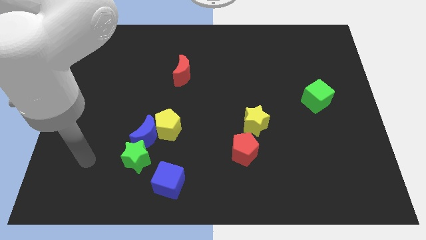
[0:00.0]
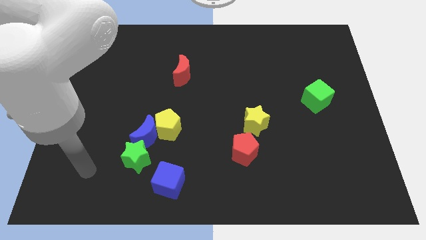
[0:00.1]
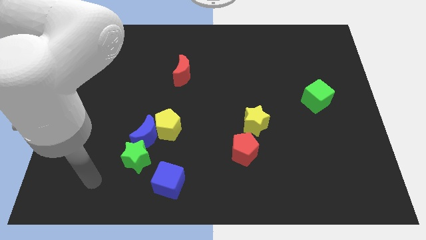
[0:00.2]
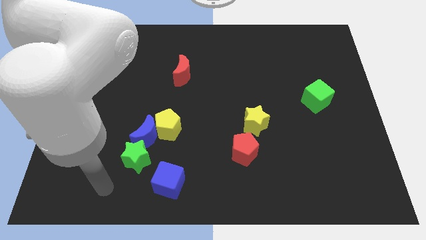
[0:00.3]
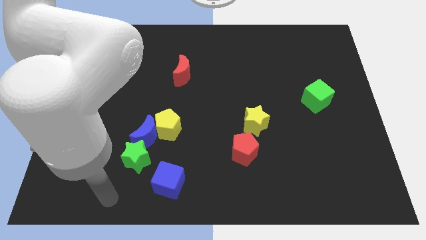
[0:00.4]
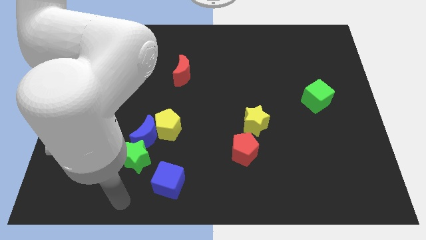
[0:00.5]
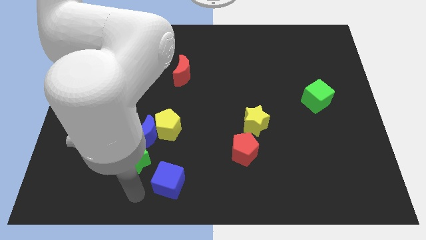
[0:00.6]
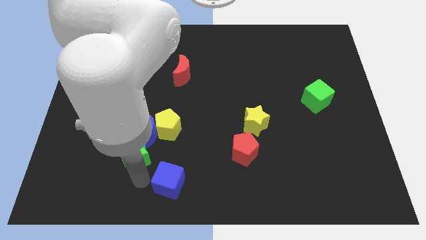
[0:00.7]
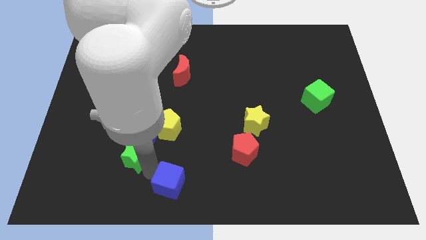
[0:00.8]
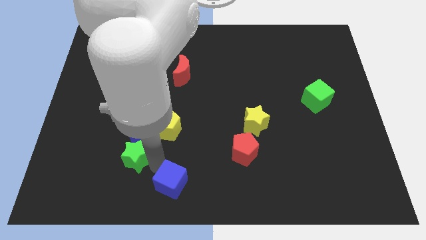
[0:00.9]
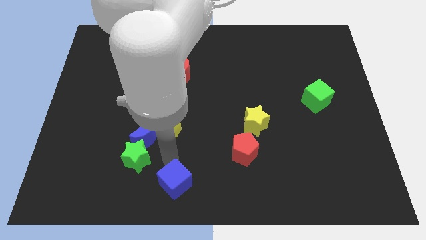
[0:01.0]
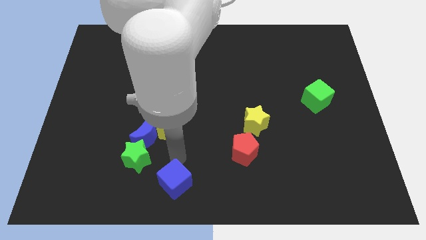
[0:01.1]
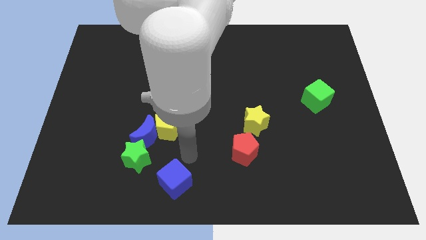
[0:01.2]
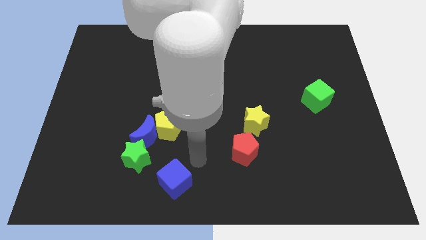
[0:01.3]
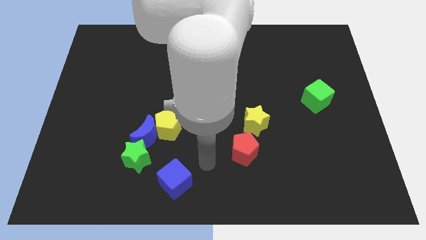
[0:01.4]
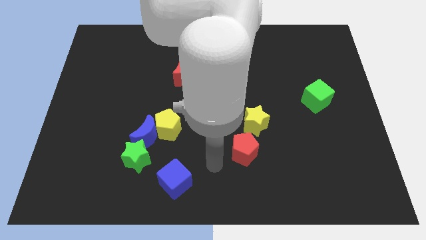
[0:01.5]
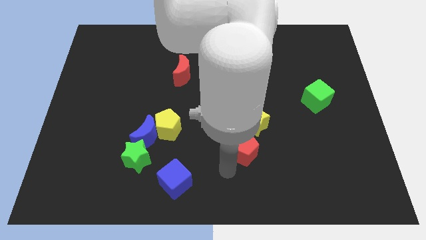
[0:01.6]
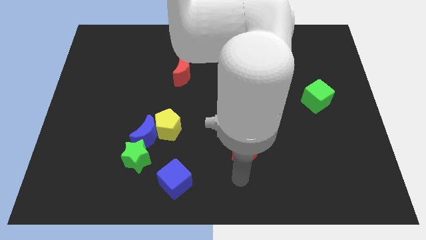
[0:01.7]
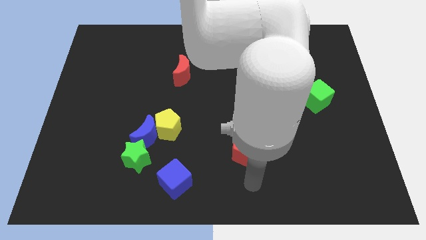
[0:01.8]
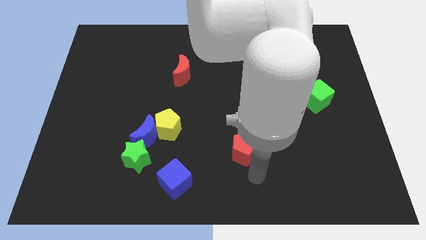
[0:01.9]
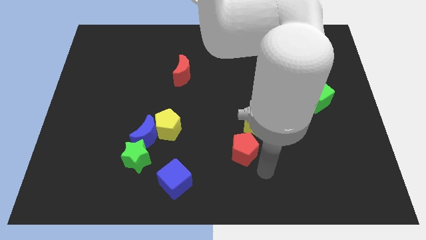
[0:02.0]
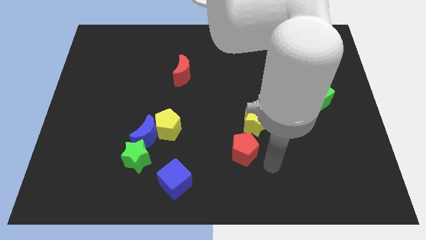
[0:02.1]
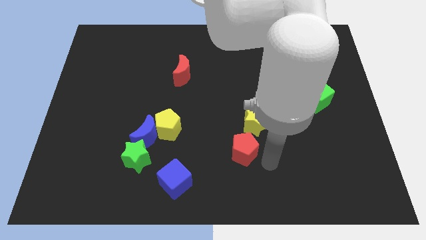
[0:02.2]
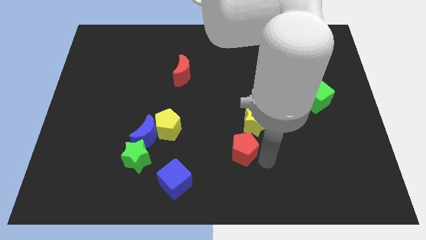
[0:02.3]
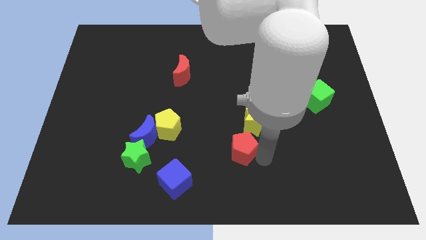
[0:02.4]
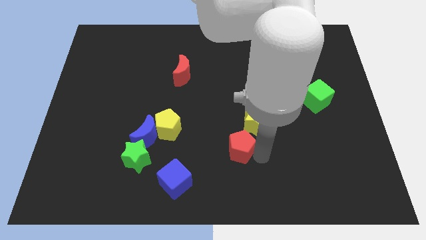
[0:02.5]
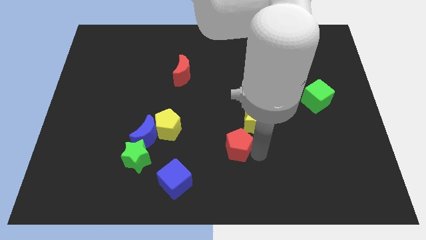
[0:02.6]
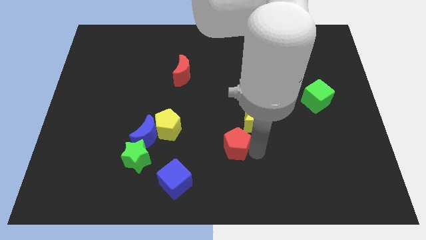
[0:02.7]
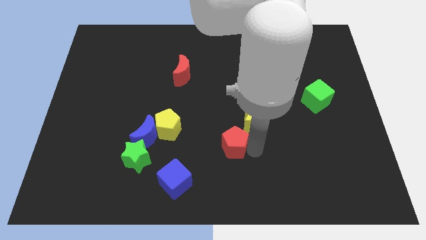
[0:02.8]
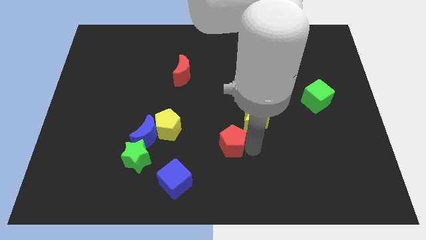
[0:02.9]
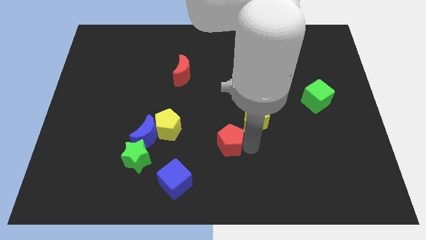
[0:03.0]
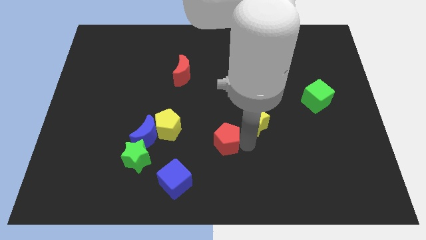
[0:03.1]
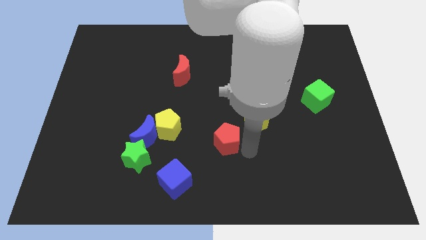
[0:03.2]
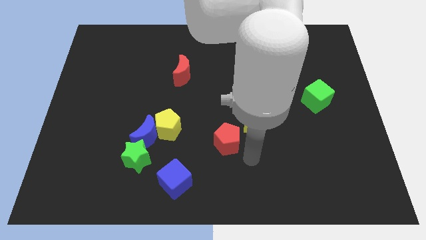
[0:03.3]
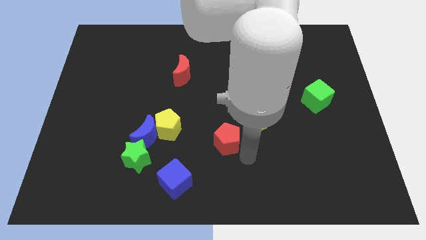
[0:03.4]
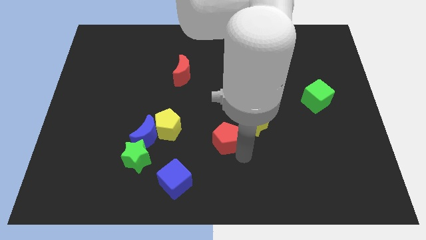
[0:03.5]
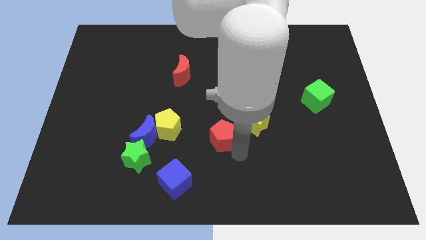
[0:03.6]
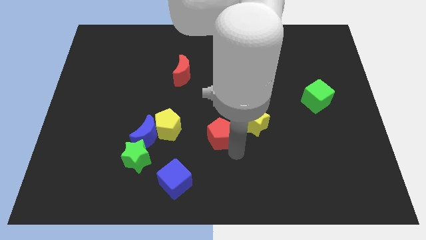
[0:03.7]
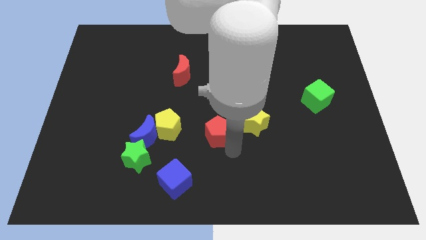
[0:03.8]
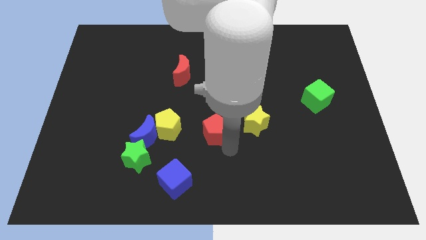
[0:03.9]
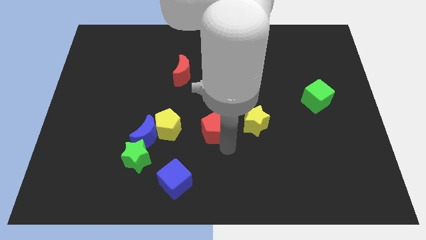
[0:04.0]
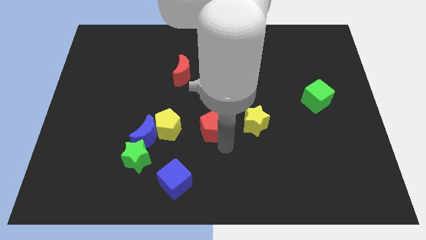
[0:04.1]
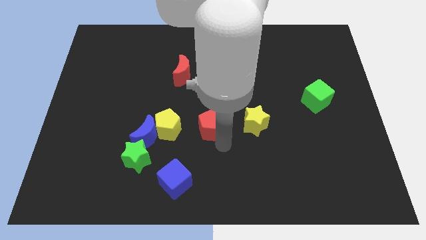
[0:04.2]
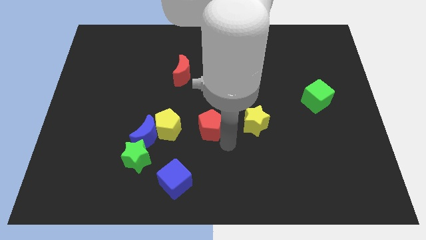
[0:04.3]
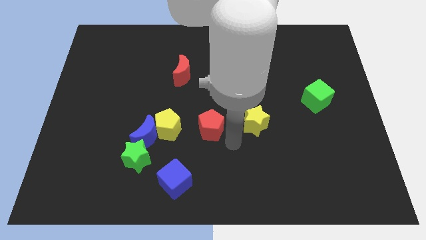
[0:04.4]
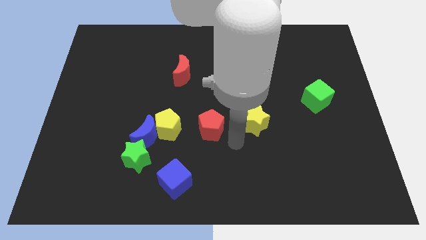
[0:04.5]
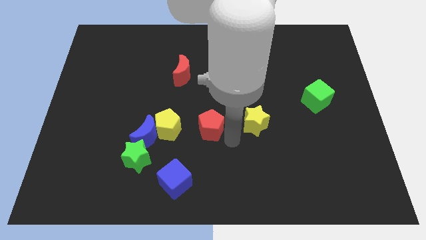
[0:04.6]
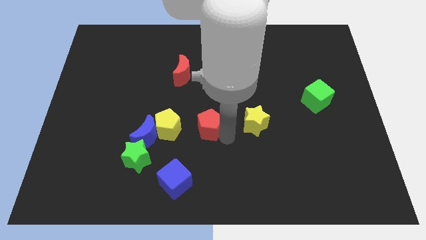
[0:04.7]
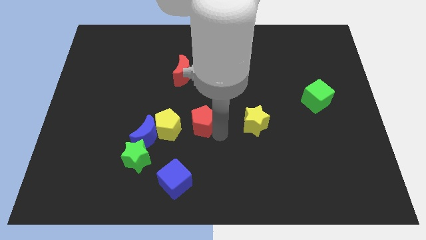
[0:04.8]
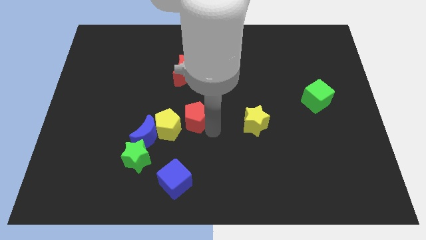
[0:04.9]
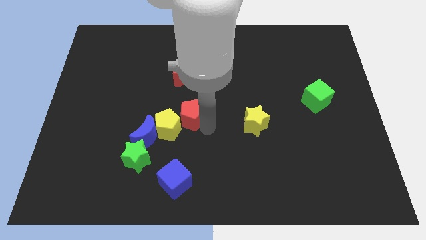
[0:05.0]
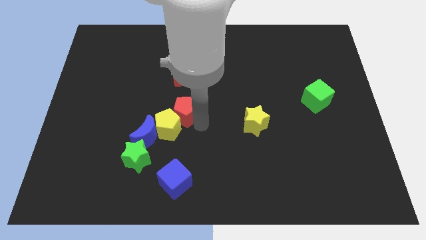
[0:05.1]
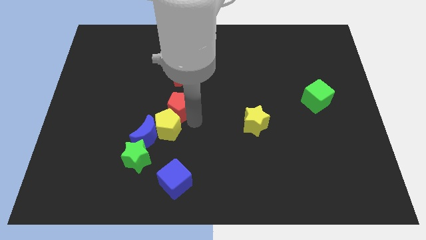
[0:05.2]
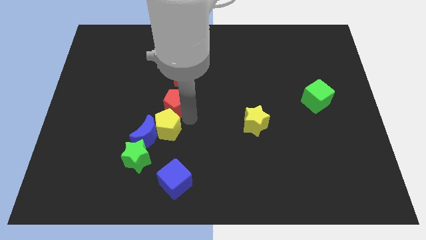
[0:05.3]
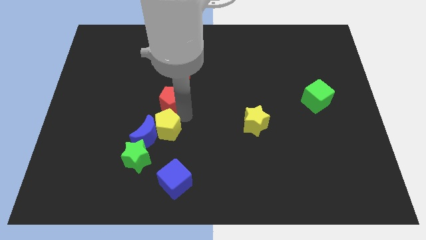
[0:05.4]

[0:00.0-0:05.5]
slide the red pentagon upwards and to the left

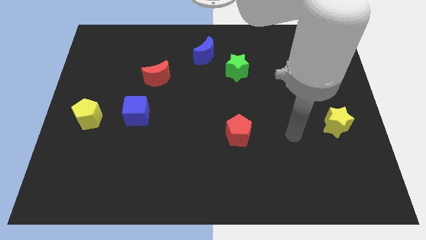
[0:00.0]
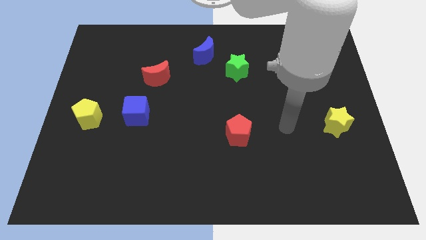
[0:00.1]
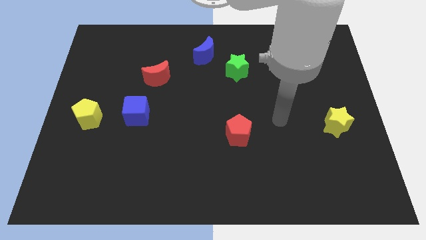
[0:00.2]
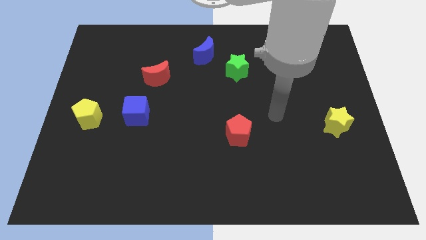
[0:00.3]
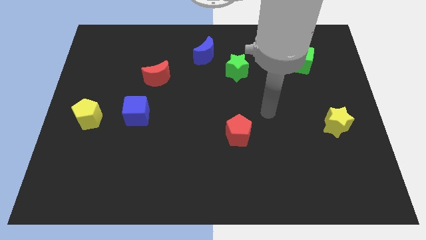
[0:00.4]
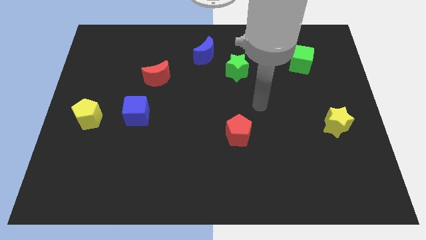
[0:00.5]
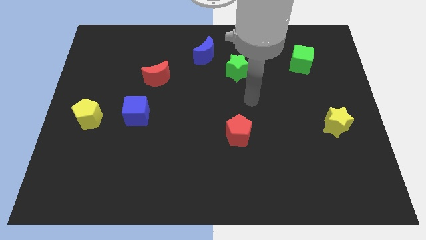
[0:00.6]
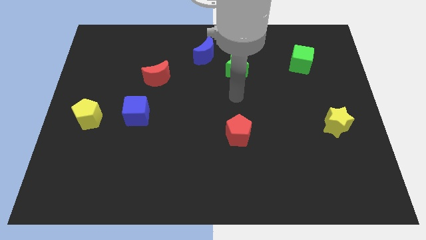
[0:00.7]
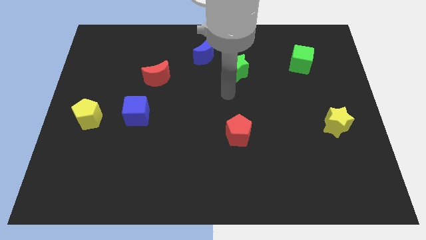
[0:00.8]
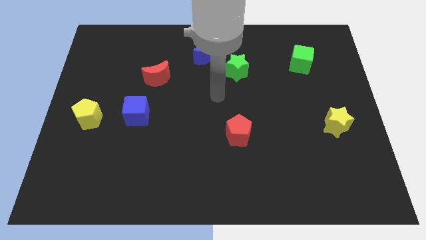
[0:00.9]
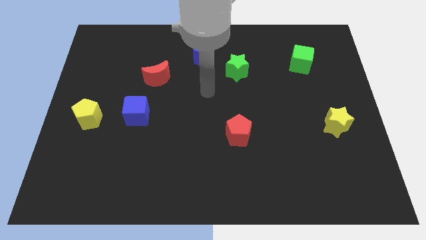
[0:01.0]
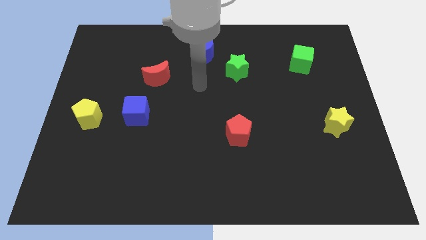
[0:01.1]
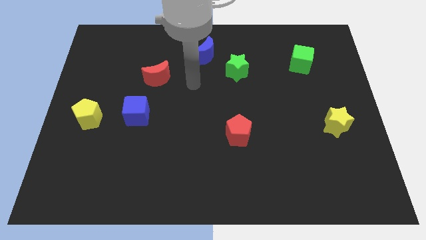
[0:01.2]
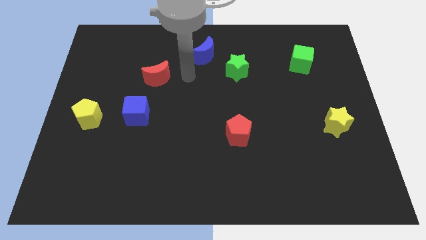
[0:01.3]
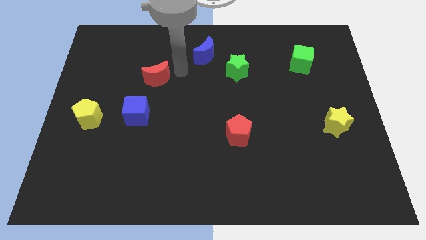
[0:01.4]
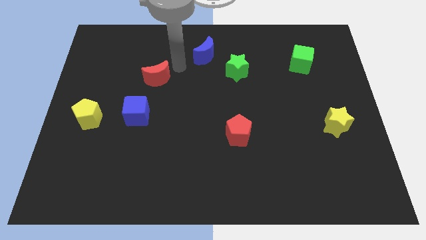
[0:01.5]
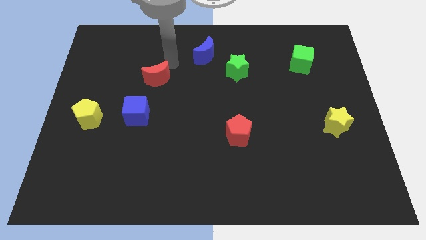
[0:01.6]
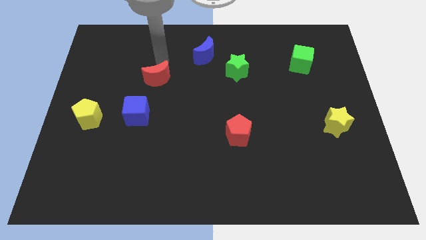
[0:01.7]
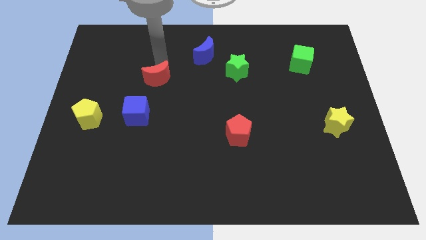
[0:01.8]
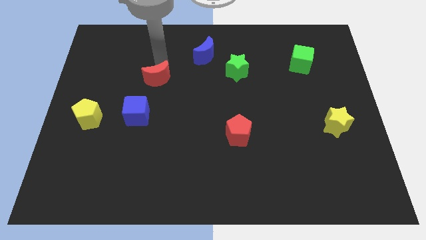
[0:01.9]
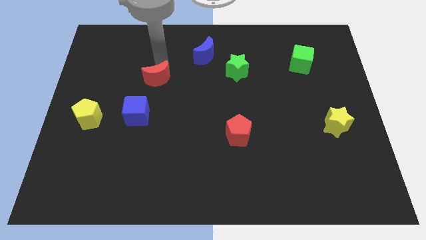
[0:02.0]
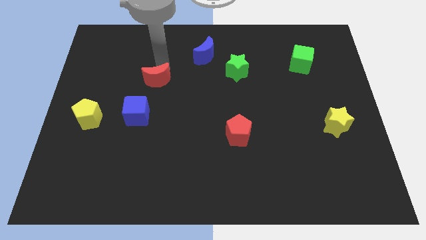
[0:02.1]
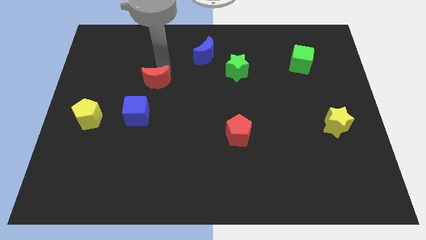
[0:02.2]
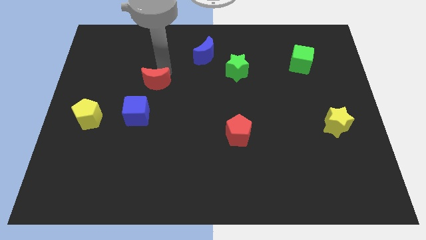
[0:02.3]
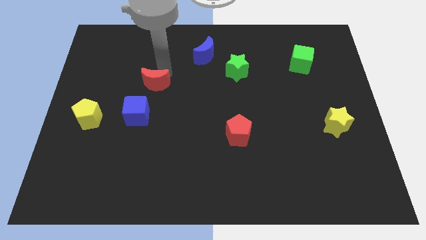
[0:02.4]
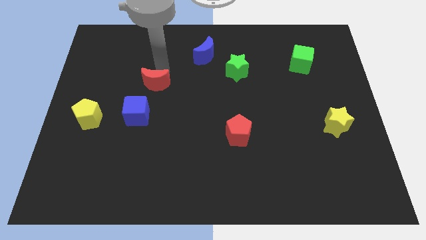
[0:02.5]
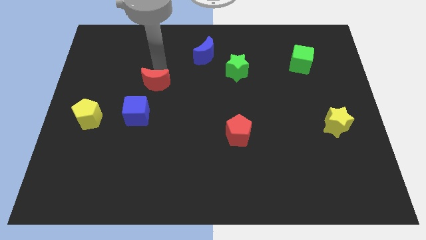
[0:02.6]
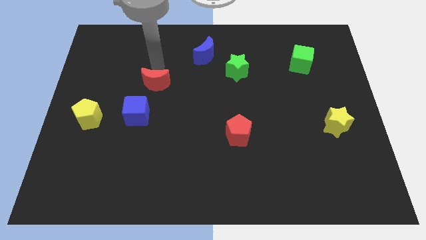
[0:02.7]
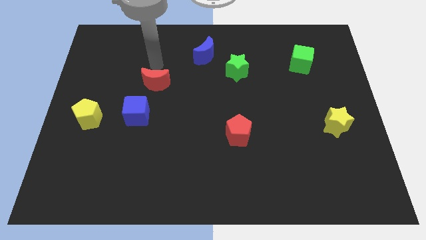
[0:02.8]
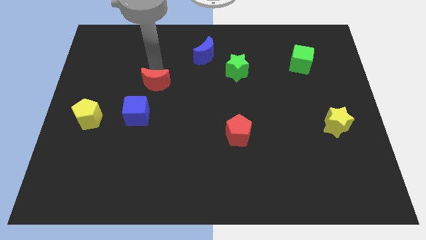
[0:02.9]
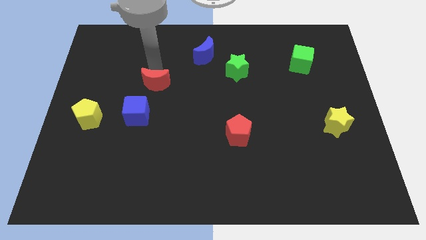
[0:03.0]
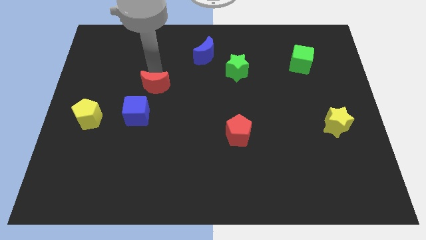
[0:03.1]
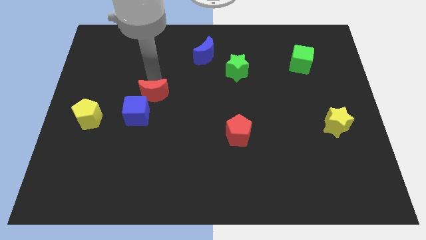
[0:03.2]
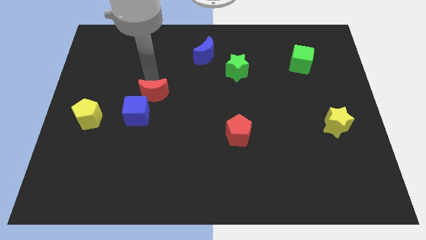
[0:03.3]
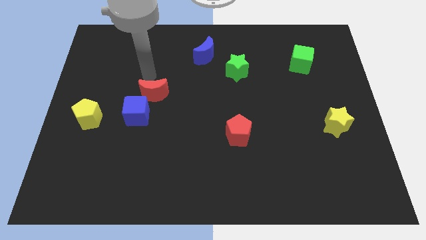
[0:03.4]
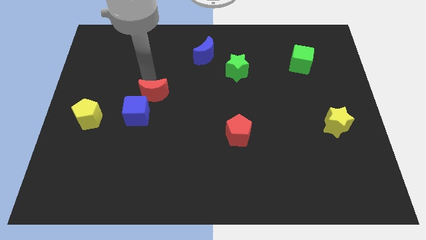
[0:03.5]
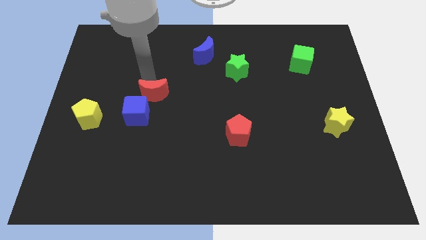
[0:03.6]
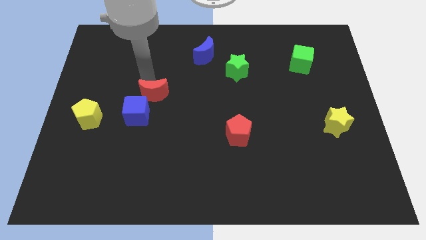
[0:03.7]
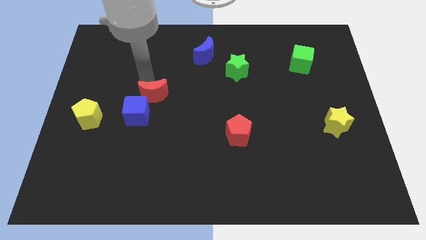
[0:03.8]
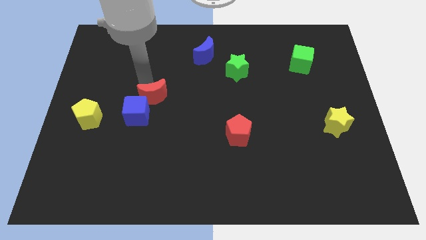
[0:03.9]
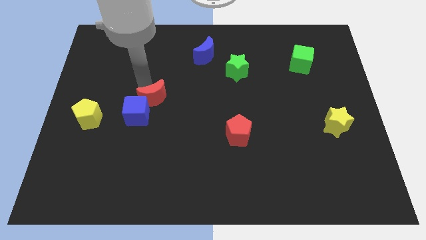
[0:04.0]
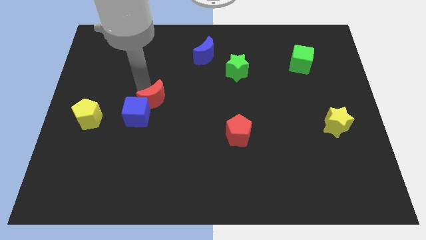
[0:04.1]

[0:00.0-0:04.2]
slightly slide the red moon downwards
